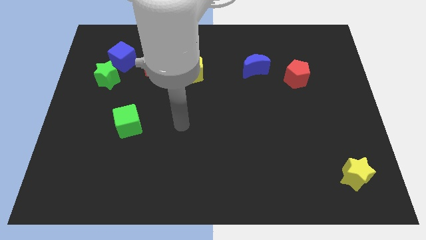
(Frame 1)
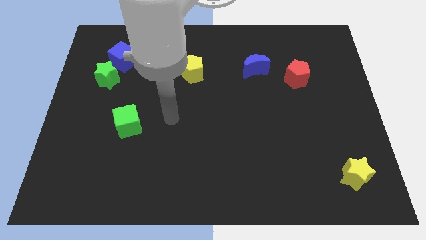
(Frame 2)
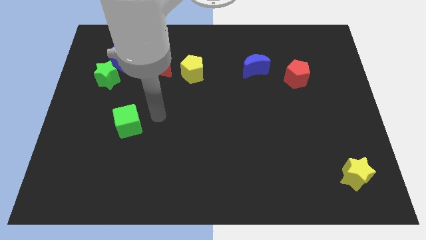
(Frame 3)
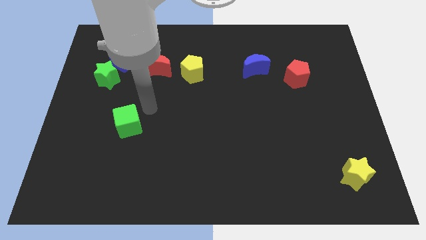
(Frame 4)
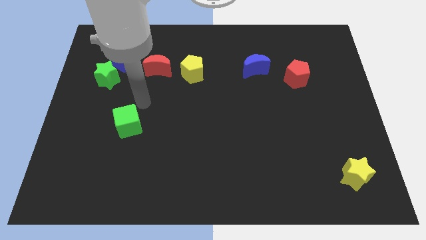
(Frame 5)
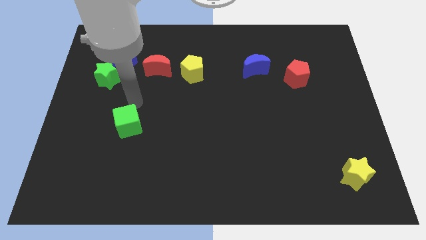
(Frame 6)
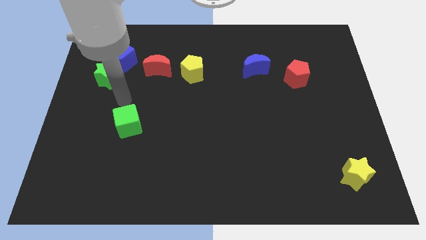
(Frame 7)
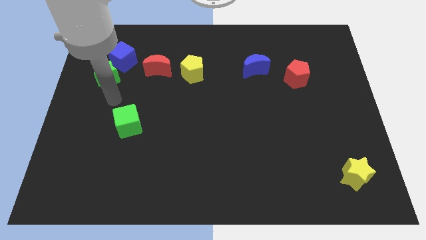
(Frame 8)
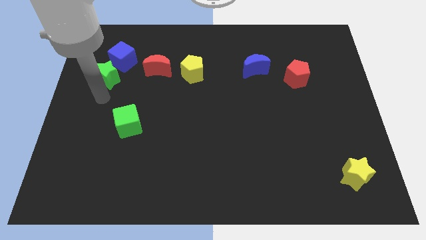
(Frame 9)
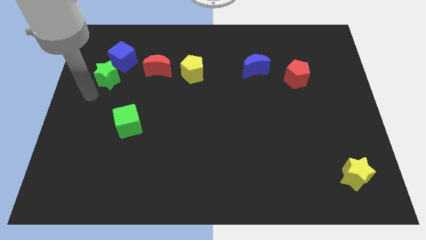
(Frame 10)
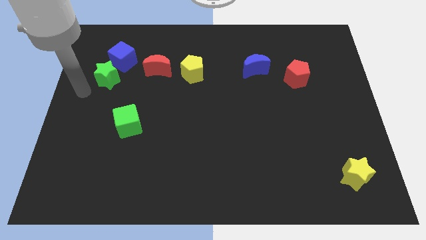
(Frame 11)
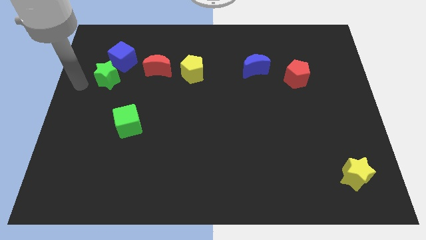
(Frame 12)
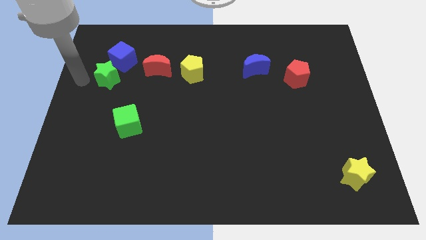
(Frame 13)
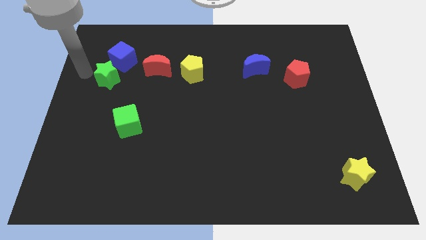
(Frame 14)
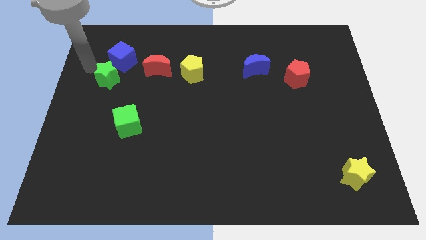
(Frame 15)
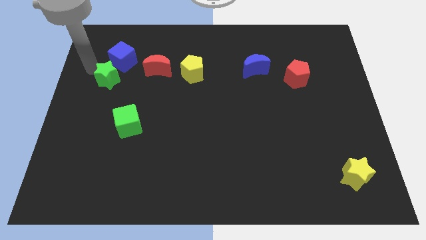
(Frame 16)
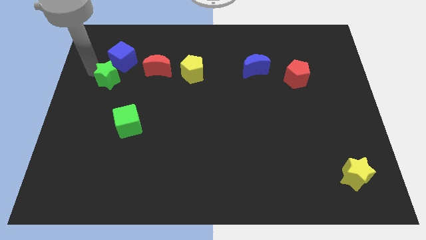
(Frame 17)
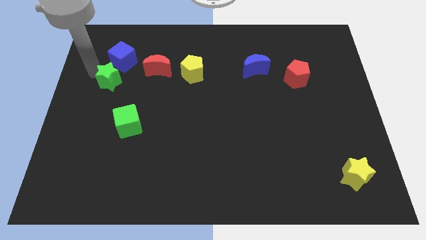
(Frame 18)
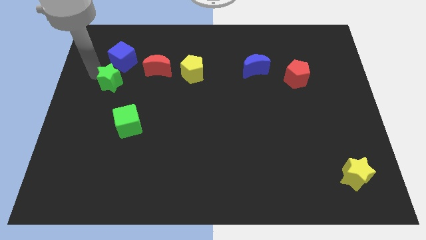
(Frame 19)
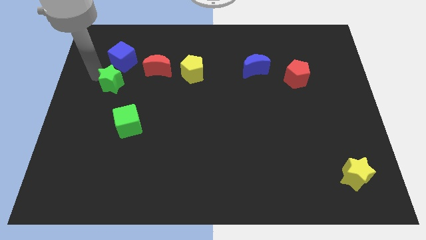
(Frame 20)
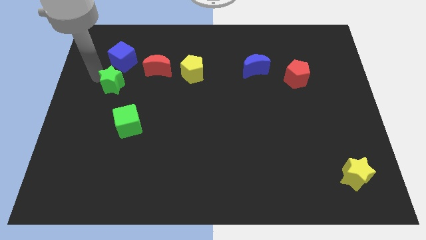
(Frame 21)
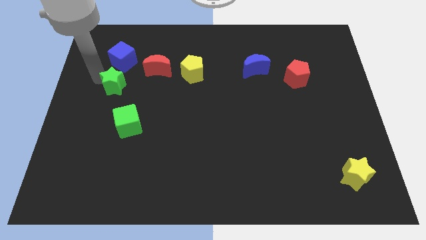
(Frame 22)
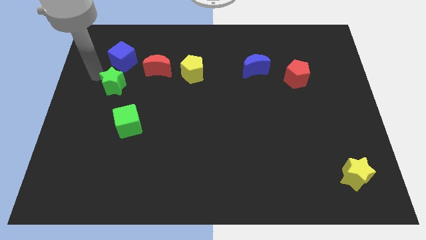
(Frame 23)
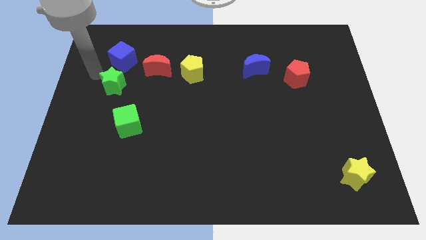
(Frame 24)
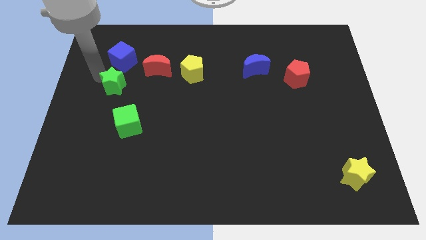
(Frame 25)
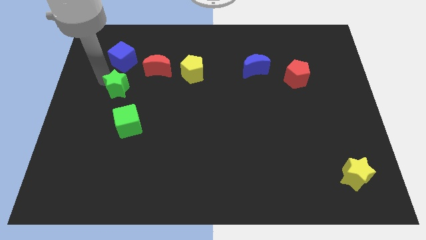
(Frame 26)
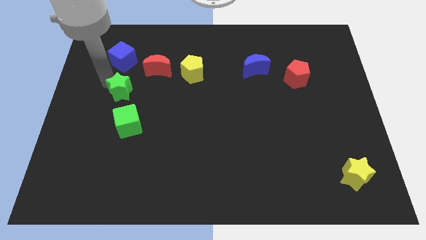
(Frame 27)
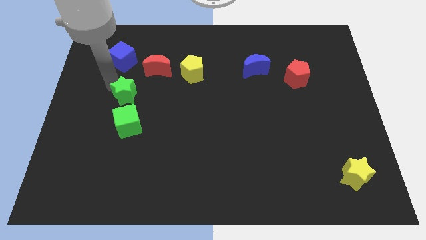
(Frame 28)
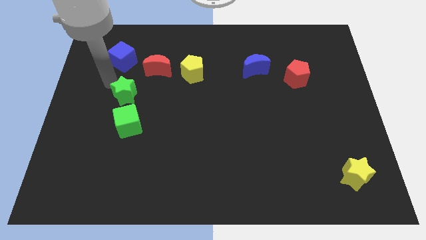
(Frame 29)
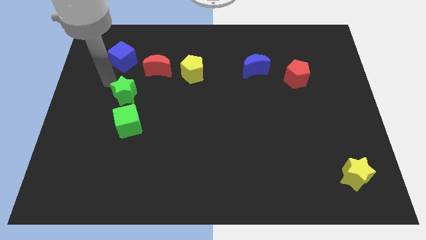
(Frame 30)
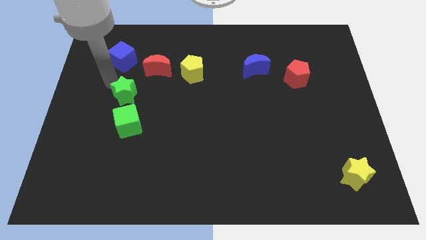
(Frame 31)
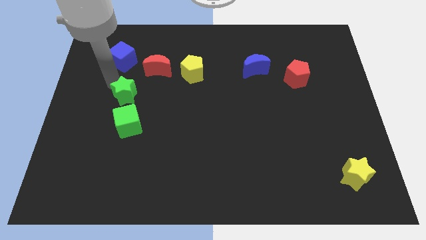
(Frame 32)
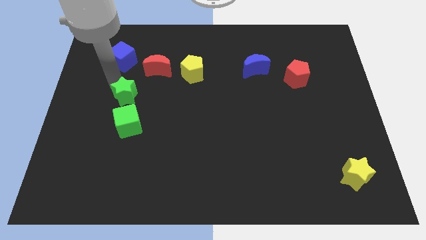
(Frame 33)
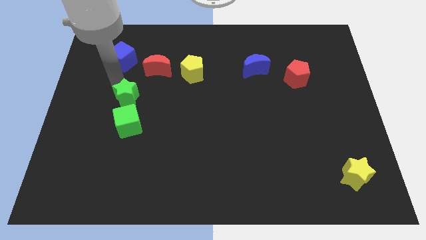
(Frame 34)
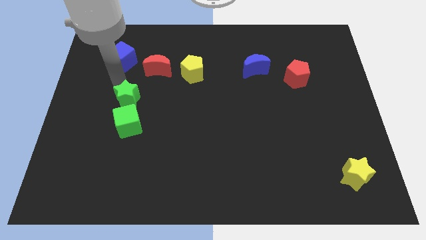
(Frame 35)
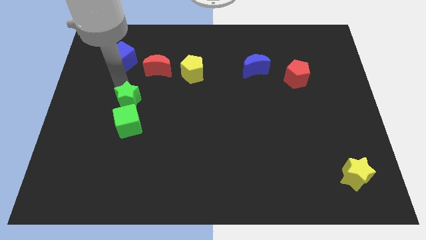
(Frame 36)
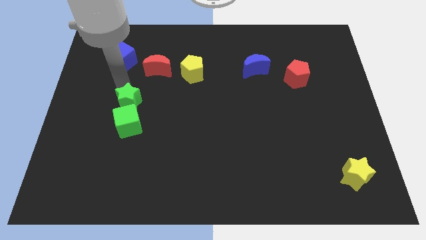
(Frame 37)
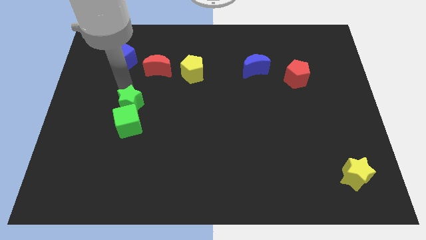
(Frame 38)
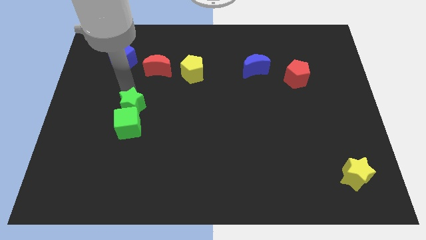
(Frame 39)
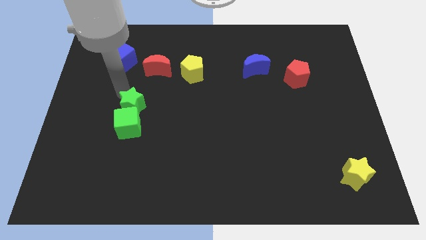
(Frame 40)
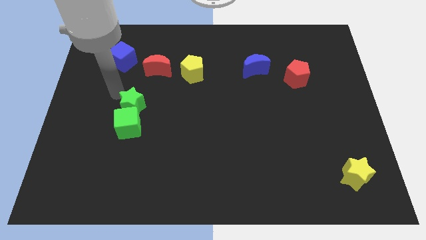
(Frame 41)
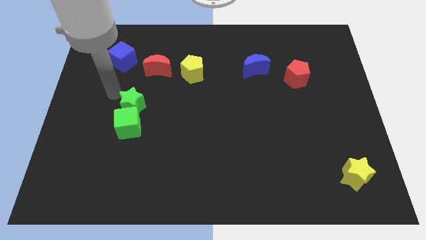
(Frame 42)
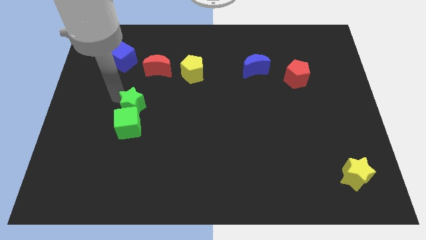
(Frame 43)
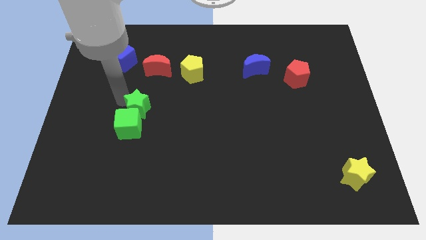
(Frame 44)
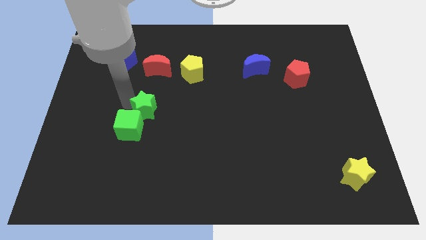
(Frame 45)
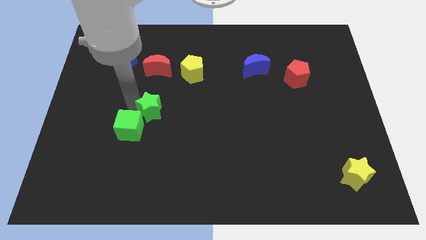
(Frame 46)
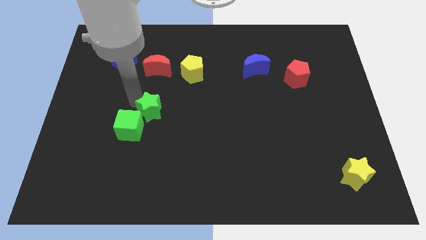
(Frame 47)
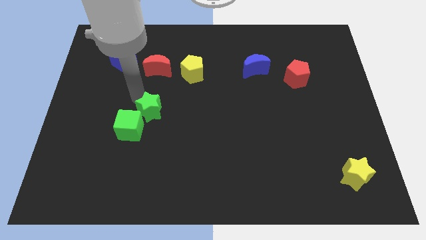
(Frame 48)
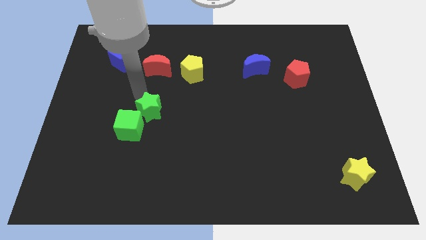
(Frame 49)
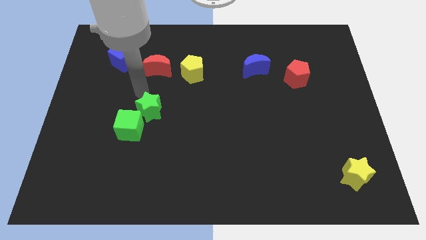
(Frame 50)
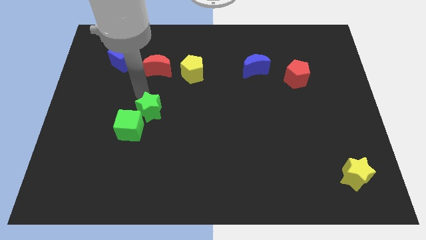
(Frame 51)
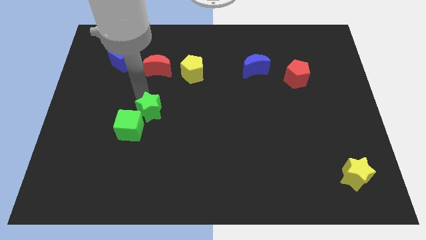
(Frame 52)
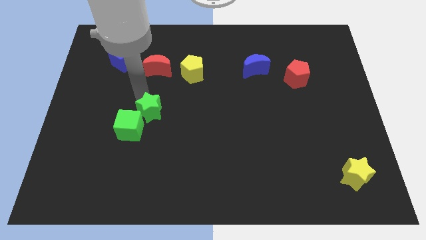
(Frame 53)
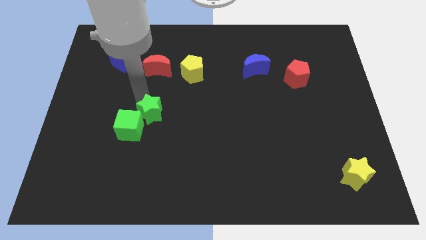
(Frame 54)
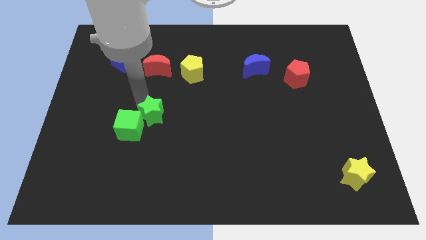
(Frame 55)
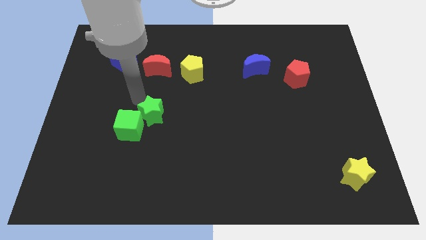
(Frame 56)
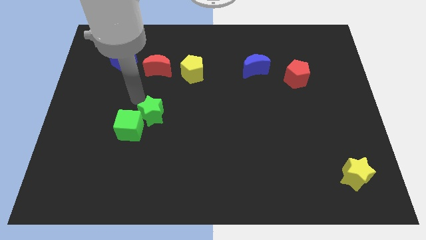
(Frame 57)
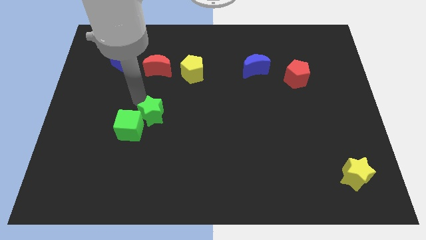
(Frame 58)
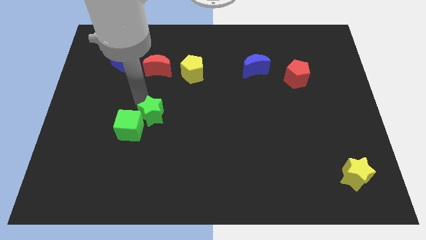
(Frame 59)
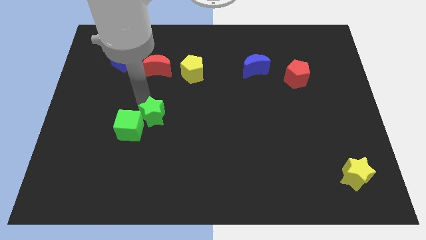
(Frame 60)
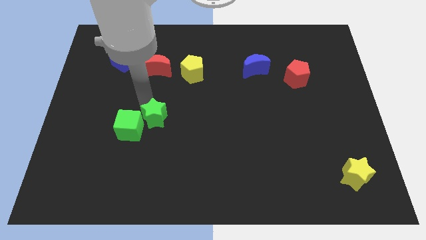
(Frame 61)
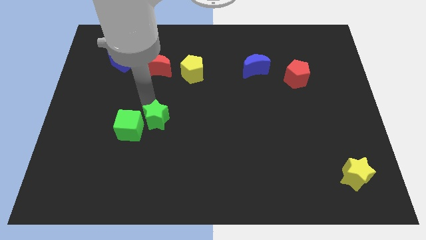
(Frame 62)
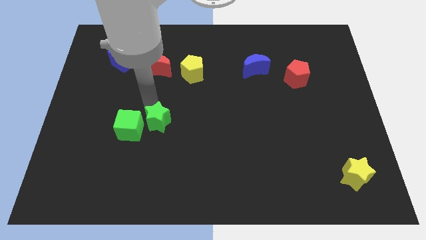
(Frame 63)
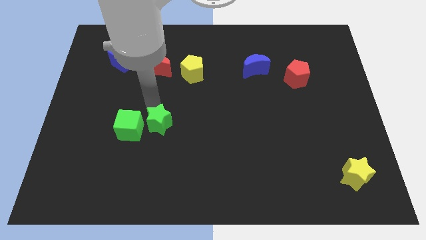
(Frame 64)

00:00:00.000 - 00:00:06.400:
push the green star diagonally down and to the right

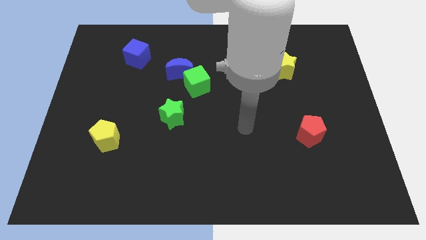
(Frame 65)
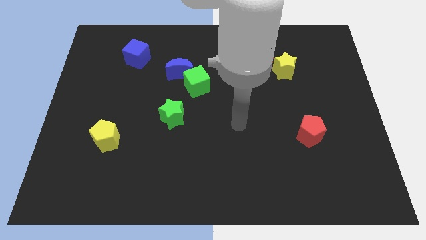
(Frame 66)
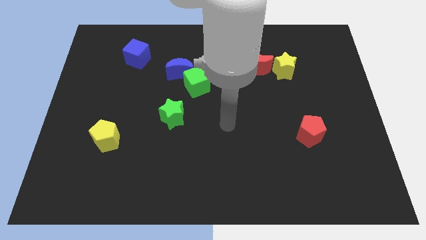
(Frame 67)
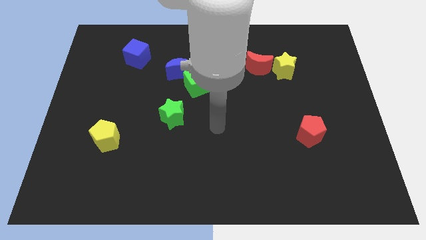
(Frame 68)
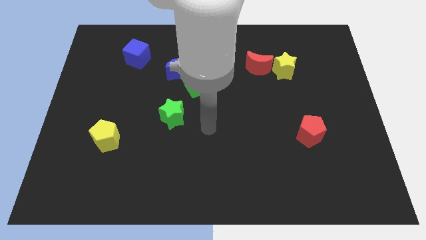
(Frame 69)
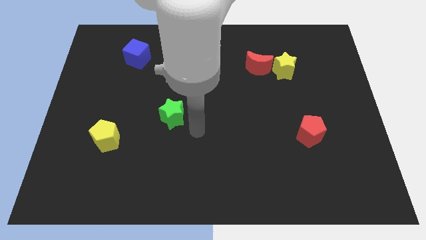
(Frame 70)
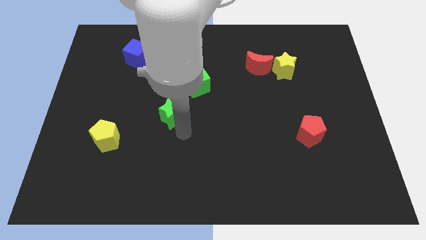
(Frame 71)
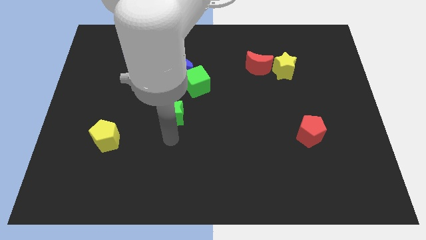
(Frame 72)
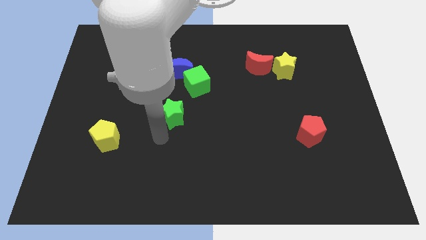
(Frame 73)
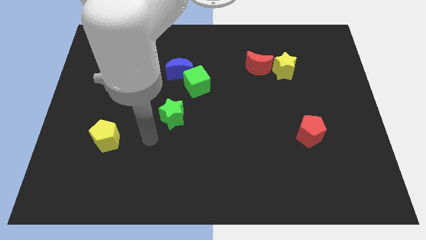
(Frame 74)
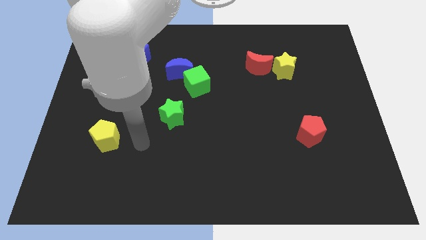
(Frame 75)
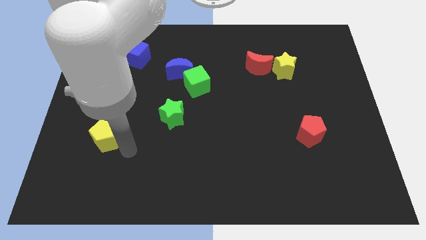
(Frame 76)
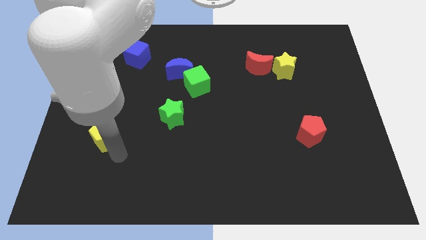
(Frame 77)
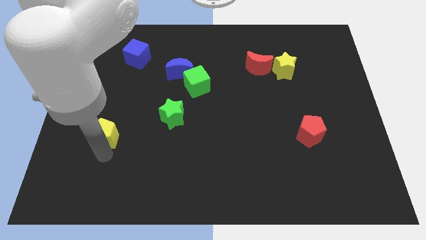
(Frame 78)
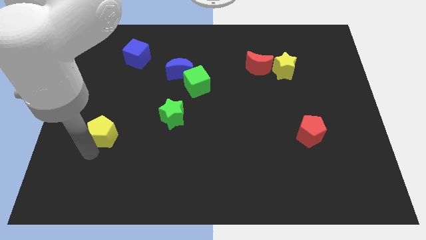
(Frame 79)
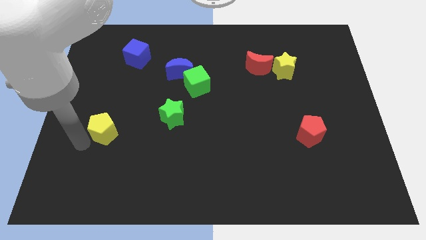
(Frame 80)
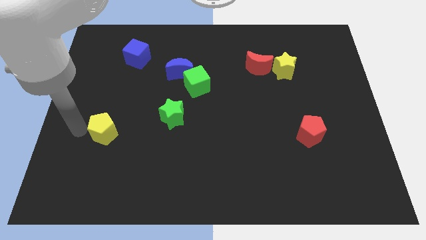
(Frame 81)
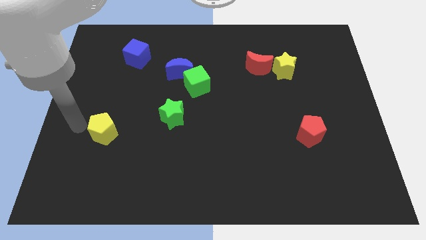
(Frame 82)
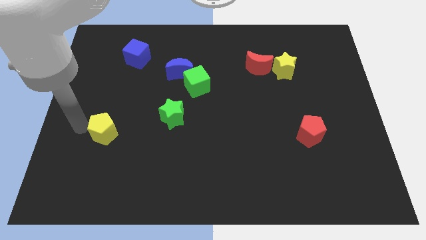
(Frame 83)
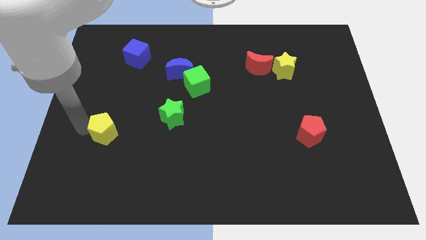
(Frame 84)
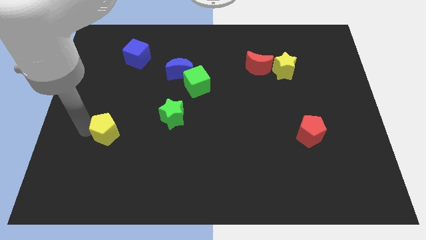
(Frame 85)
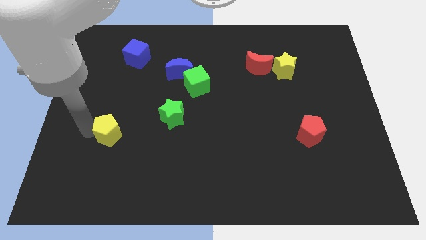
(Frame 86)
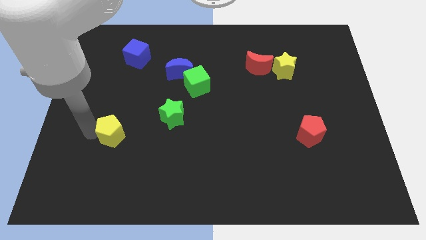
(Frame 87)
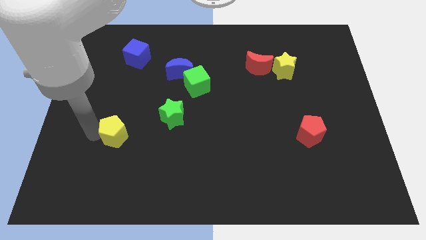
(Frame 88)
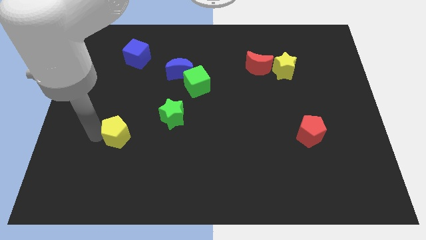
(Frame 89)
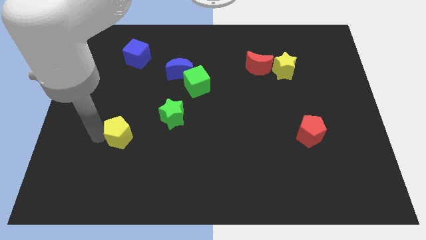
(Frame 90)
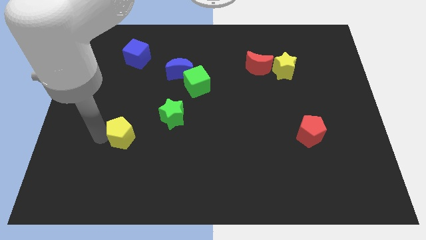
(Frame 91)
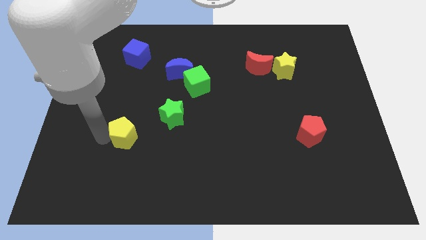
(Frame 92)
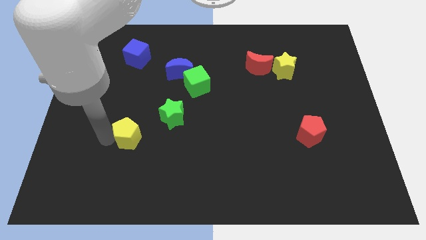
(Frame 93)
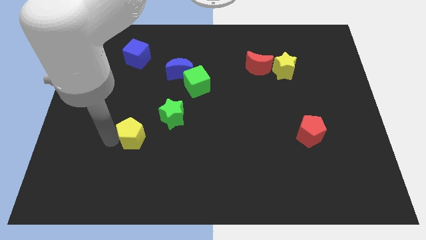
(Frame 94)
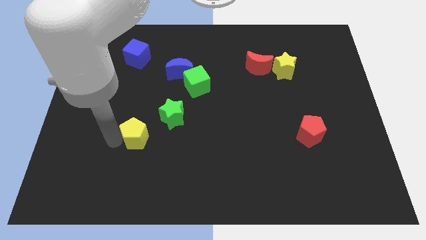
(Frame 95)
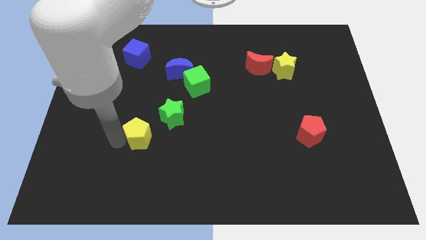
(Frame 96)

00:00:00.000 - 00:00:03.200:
push the yellow pentagon slightly to the right
